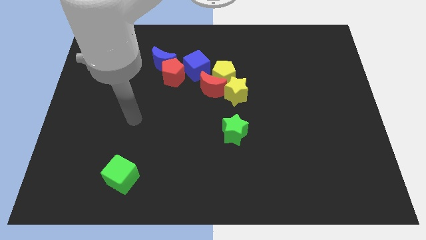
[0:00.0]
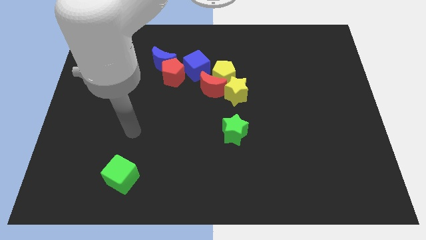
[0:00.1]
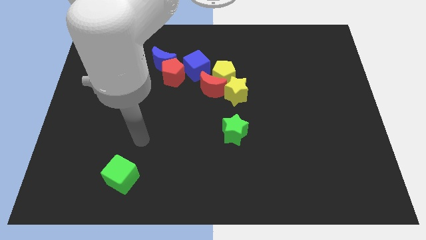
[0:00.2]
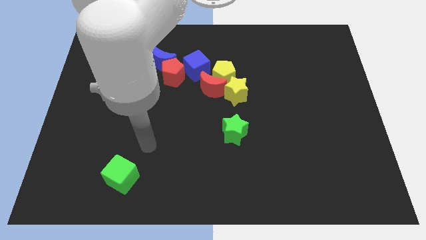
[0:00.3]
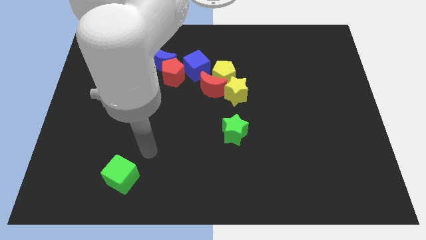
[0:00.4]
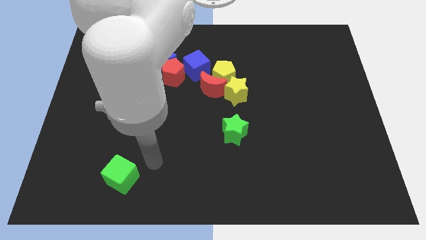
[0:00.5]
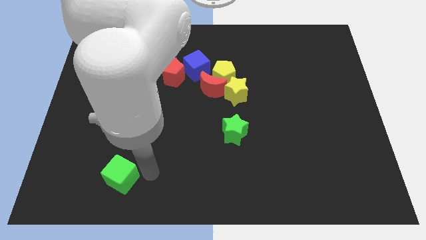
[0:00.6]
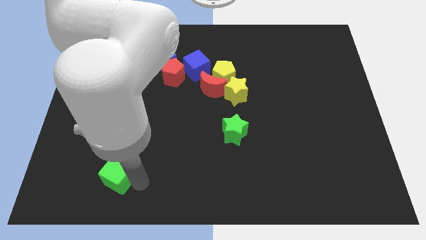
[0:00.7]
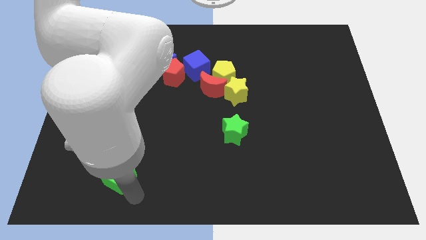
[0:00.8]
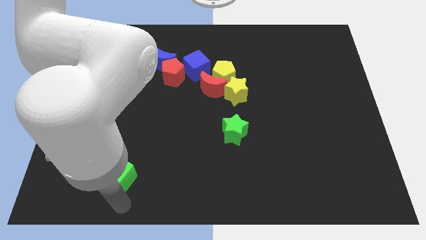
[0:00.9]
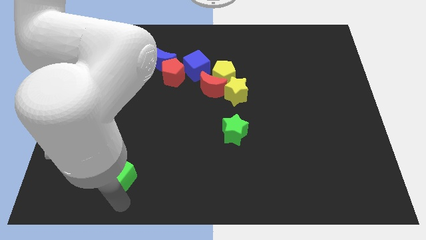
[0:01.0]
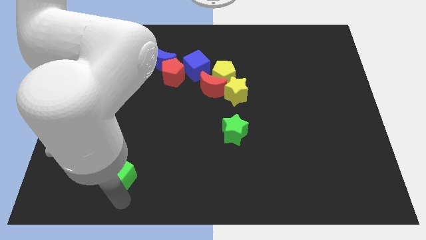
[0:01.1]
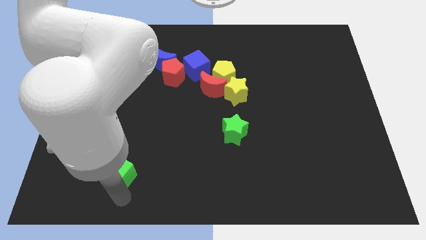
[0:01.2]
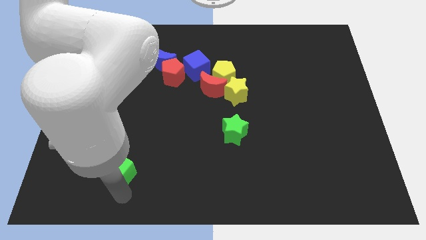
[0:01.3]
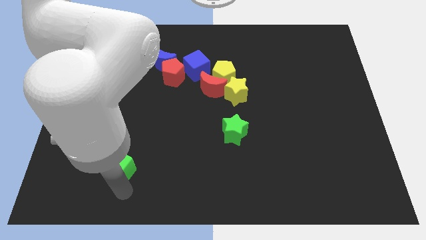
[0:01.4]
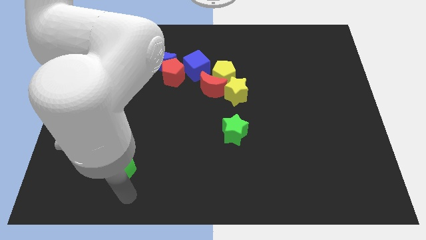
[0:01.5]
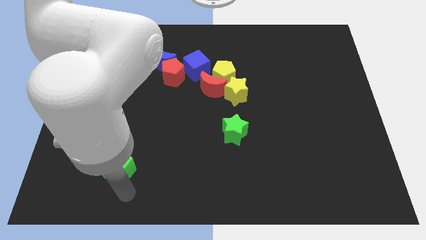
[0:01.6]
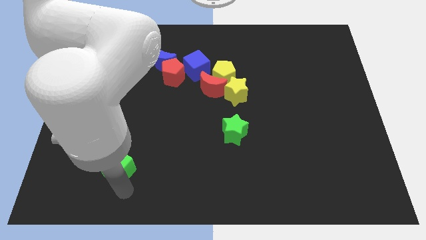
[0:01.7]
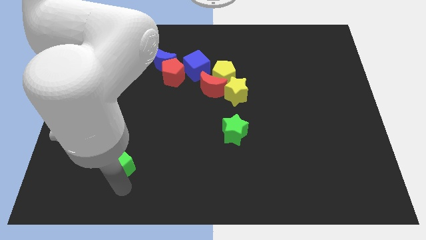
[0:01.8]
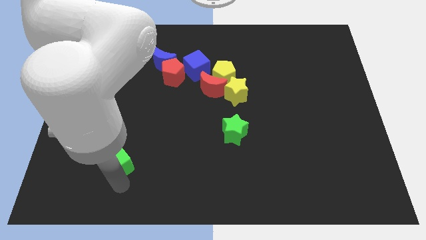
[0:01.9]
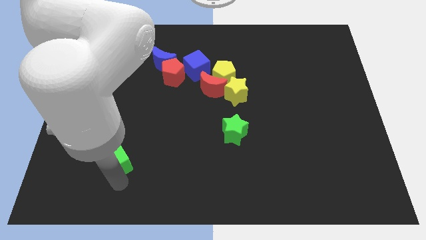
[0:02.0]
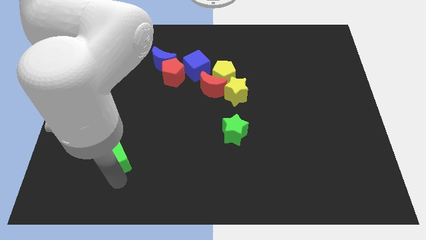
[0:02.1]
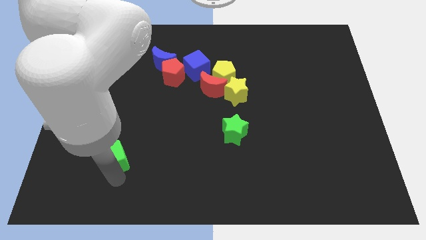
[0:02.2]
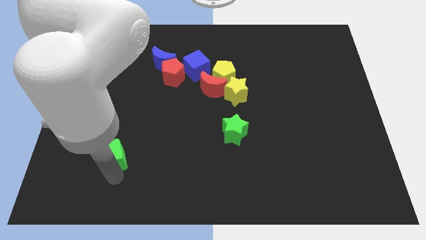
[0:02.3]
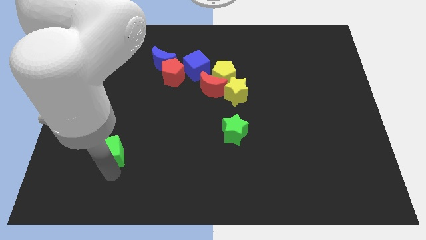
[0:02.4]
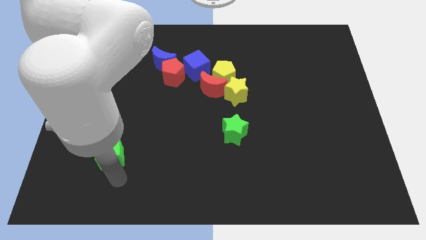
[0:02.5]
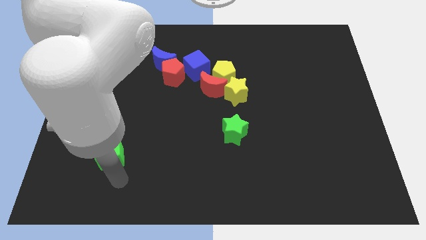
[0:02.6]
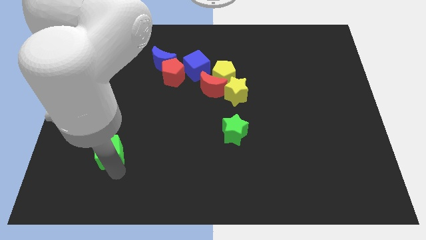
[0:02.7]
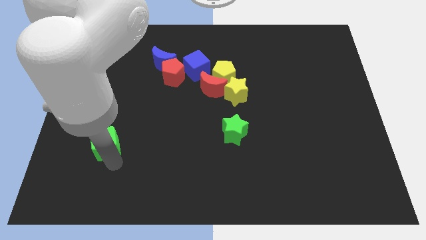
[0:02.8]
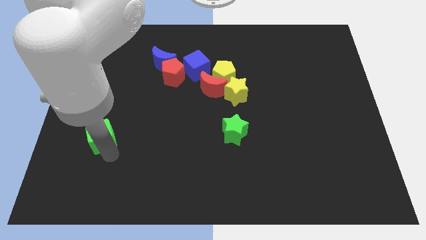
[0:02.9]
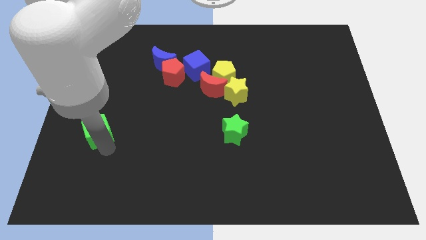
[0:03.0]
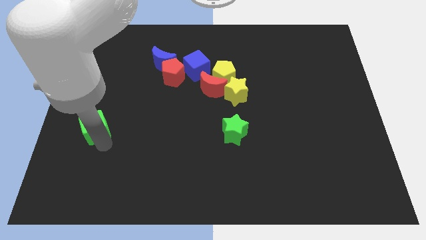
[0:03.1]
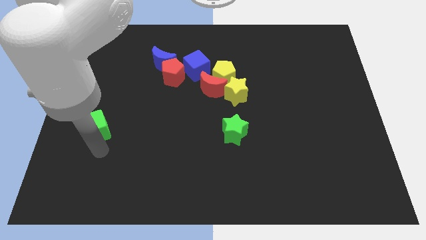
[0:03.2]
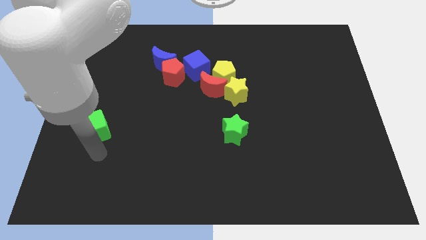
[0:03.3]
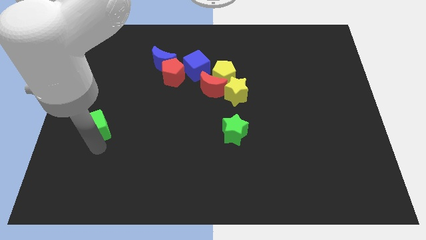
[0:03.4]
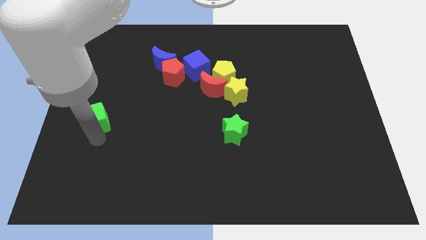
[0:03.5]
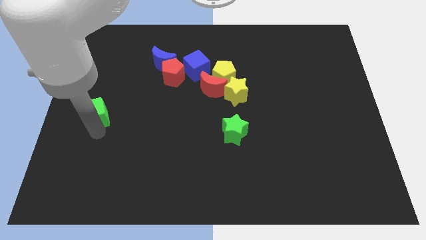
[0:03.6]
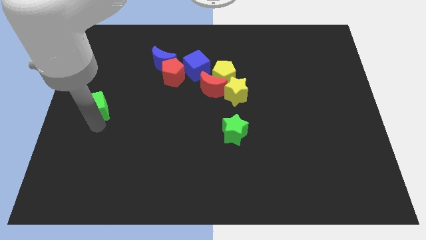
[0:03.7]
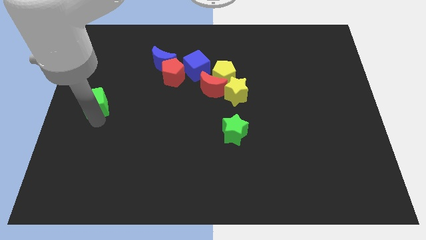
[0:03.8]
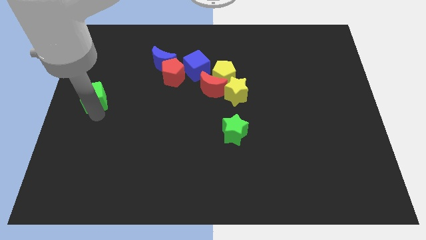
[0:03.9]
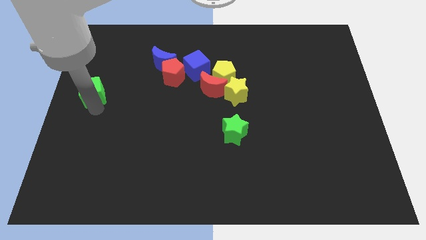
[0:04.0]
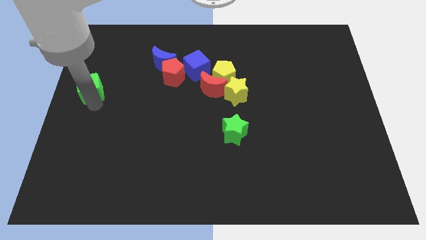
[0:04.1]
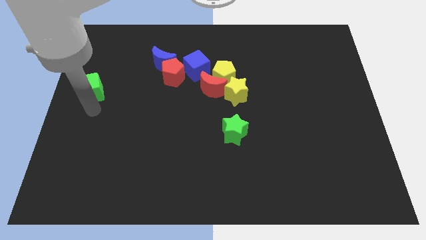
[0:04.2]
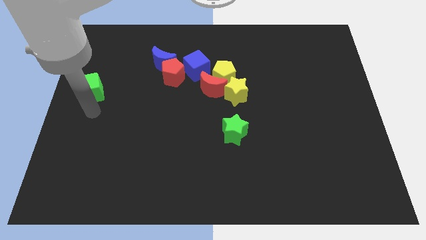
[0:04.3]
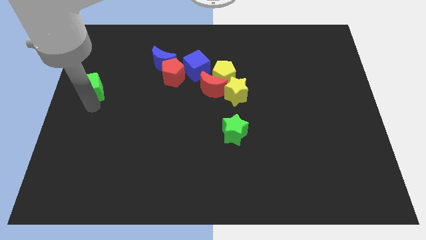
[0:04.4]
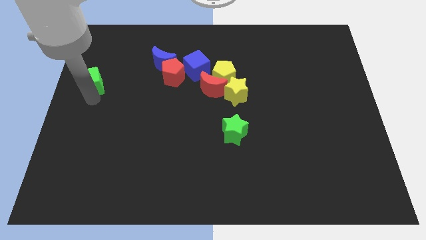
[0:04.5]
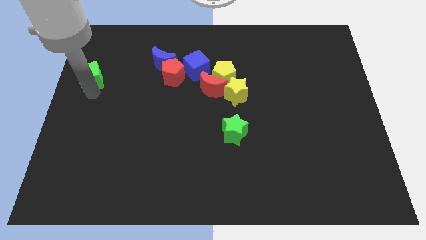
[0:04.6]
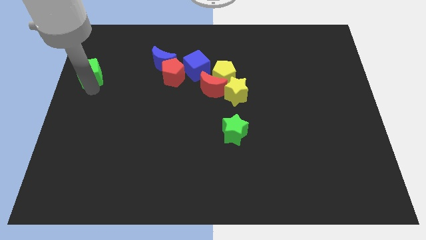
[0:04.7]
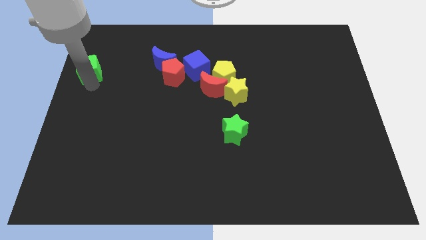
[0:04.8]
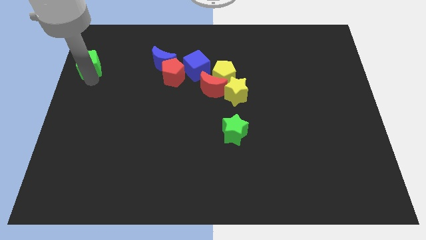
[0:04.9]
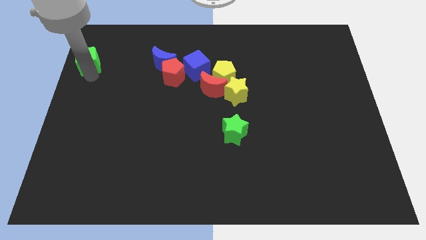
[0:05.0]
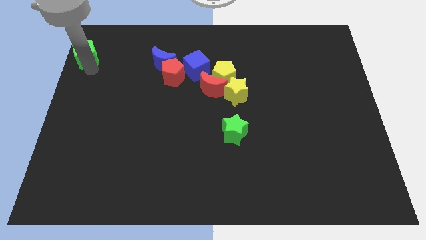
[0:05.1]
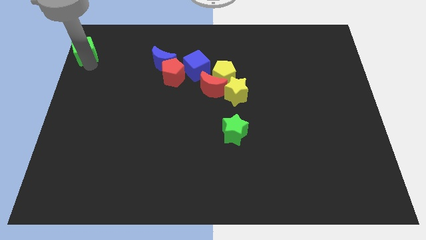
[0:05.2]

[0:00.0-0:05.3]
slide the green cube to the top left
